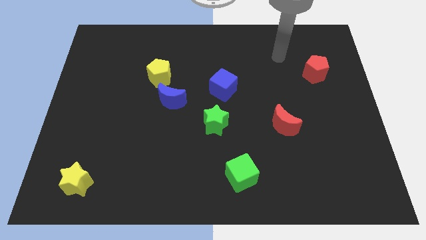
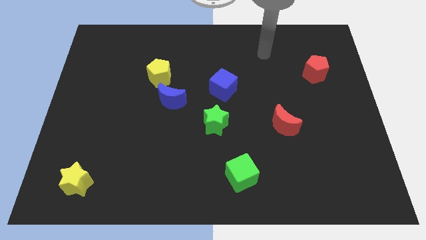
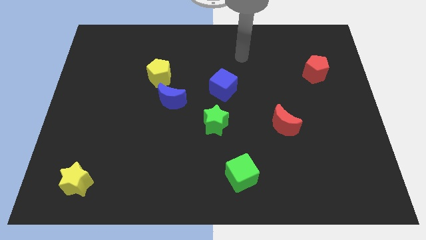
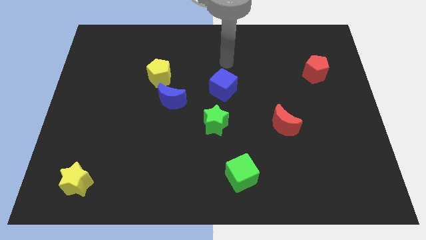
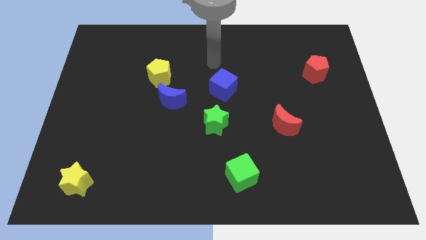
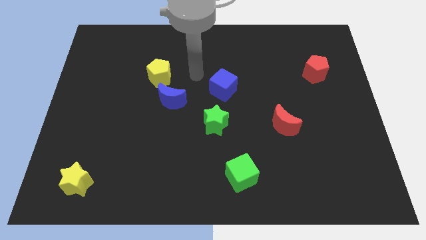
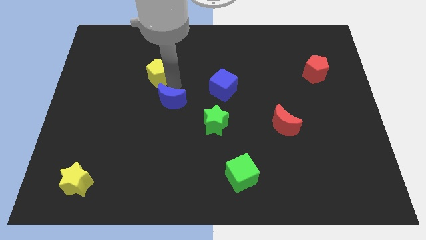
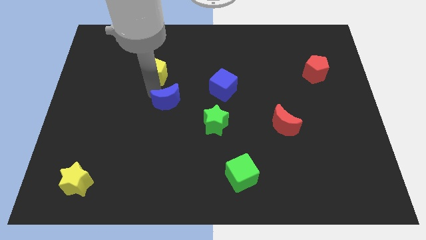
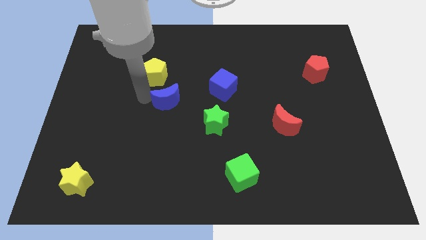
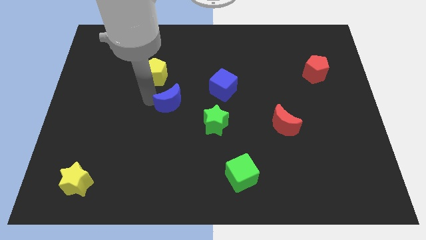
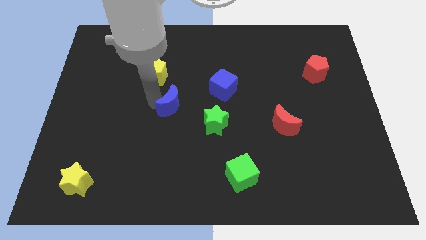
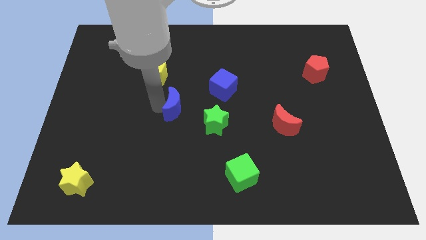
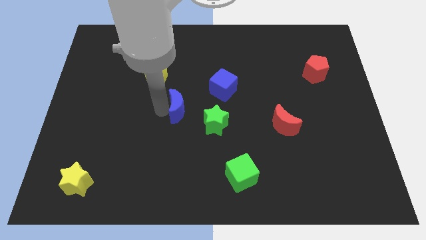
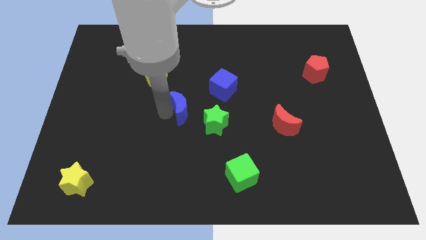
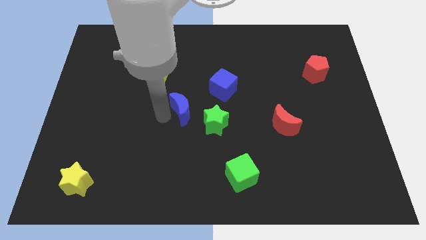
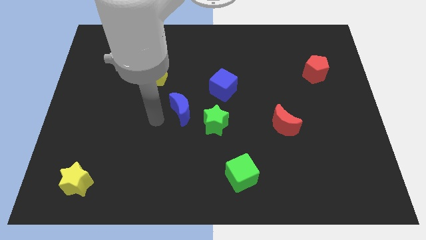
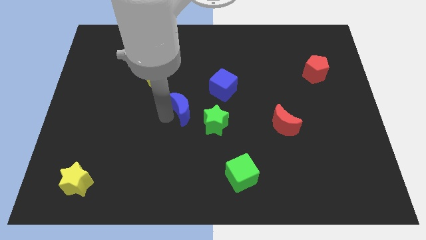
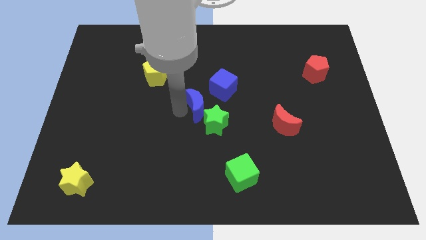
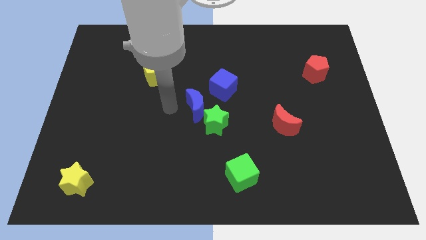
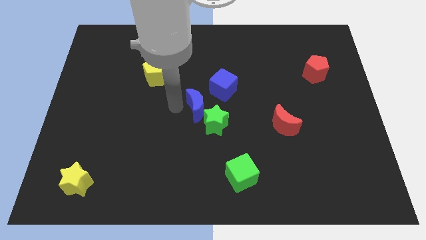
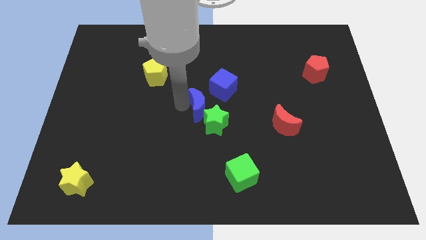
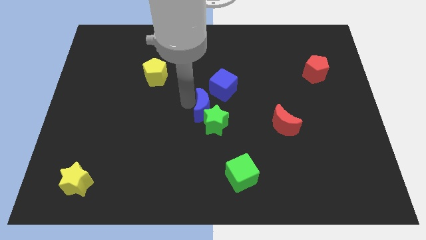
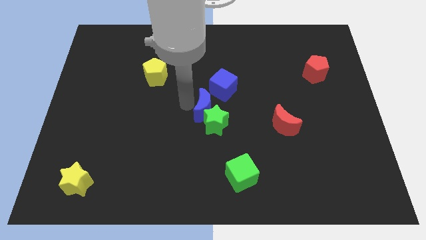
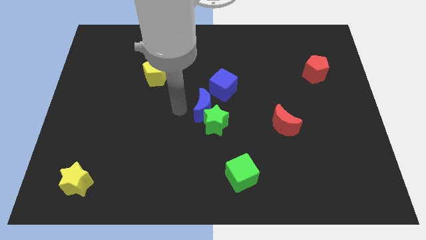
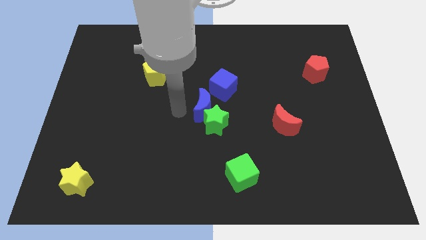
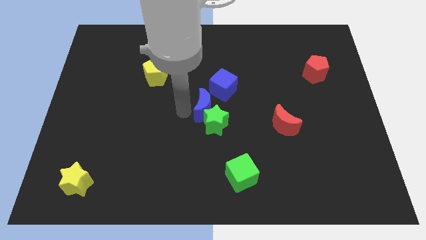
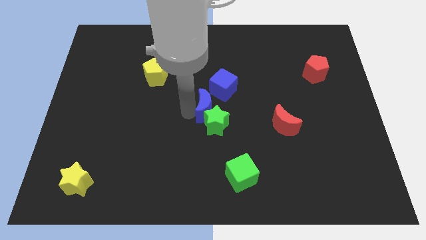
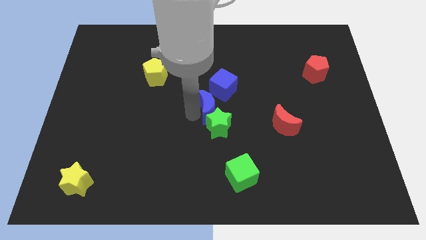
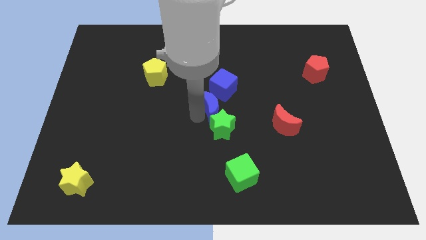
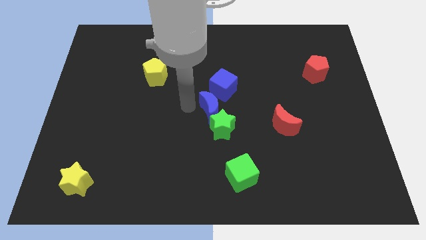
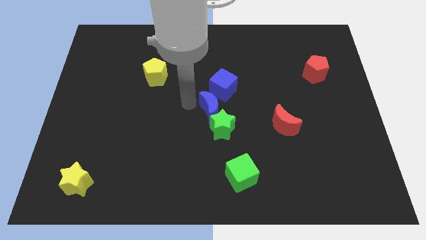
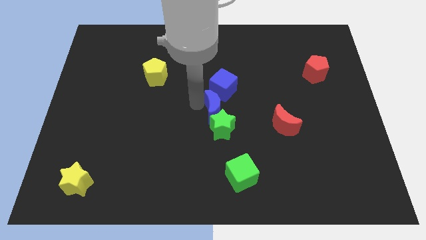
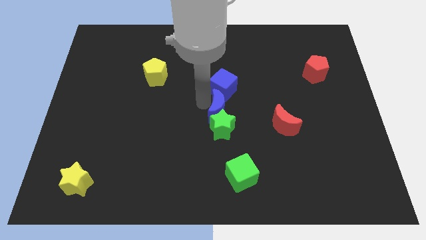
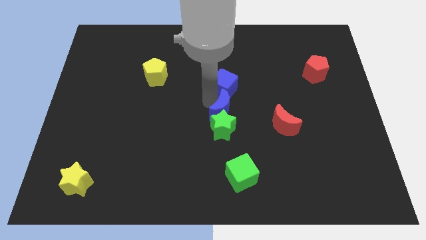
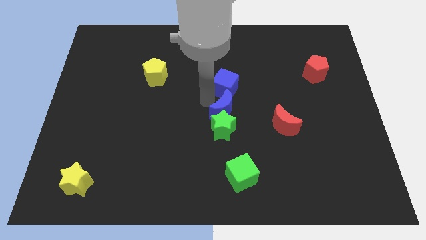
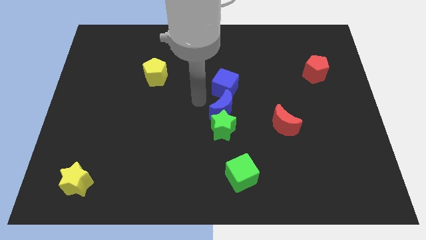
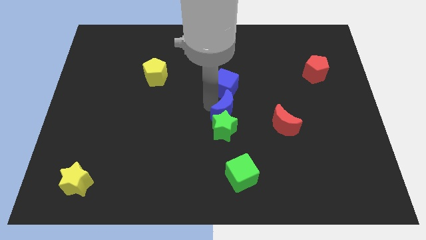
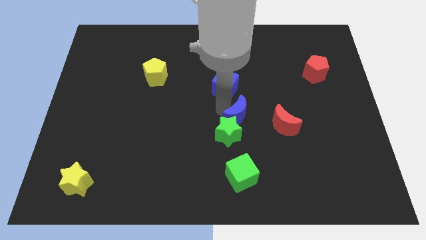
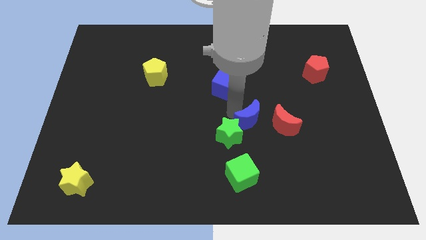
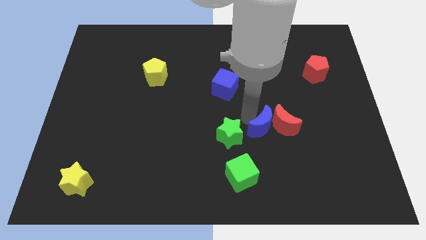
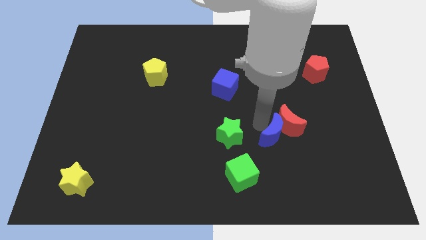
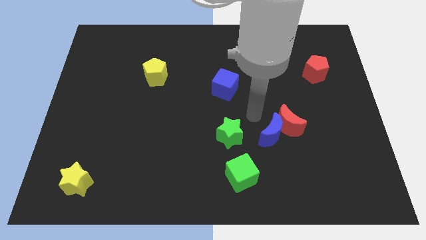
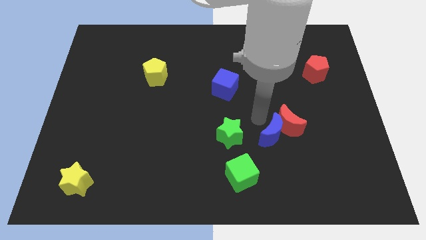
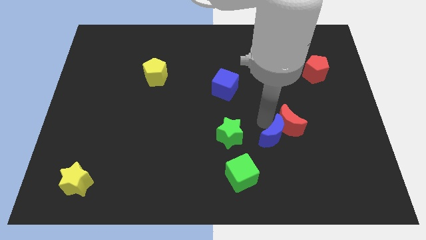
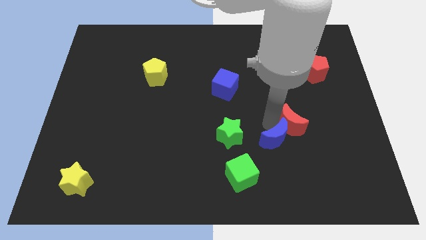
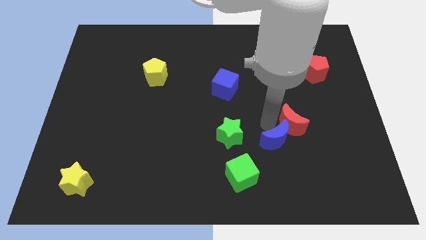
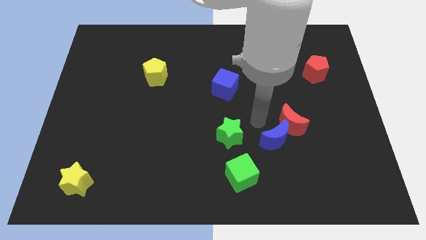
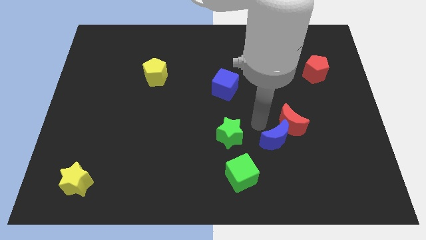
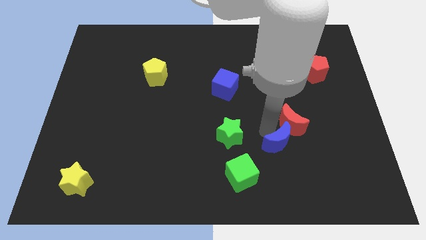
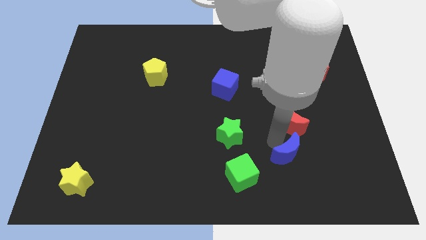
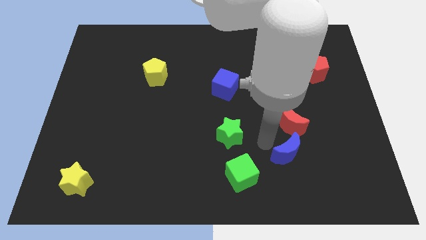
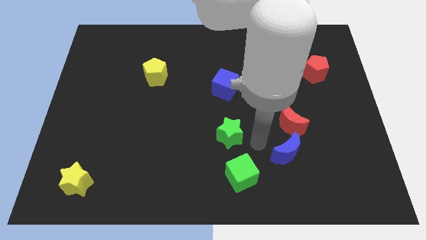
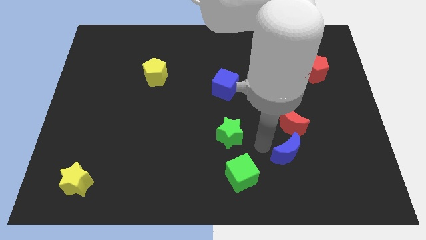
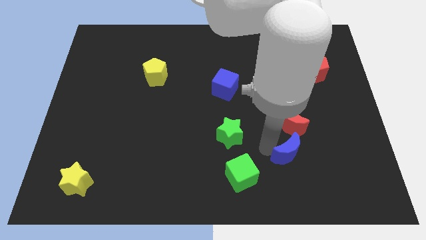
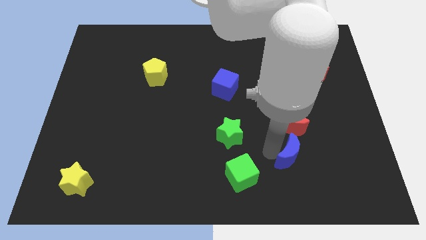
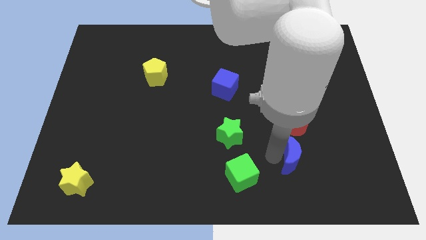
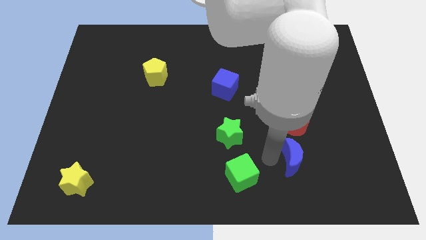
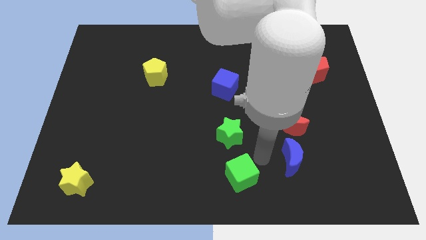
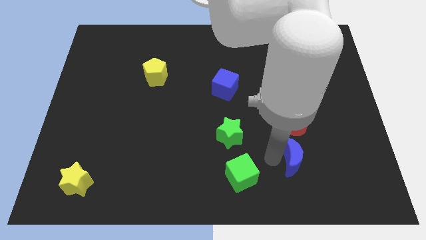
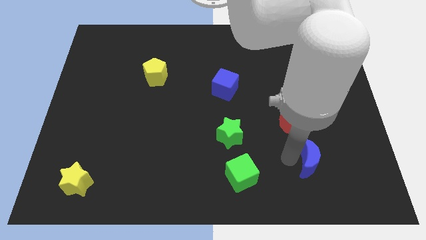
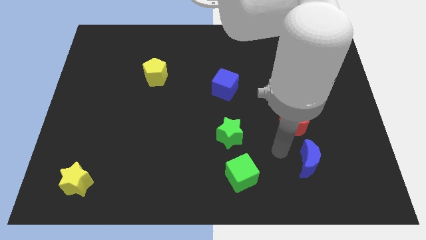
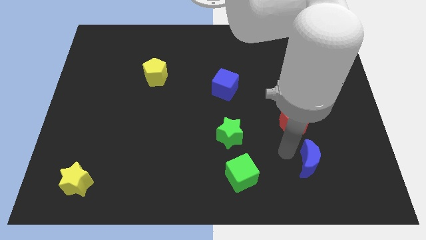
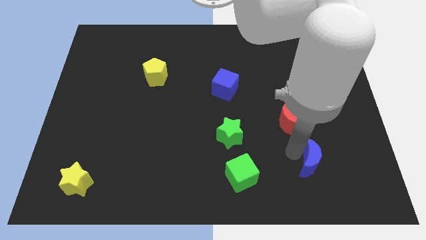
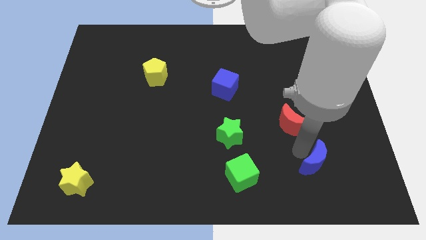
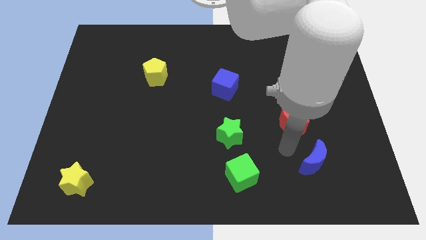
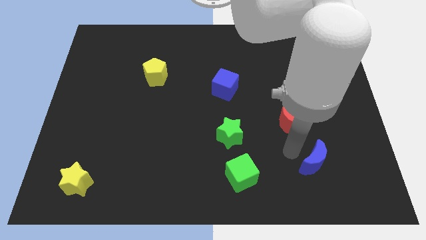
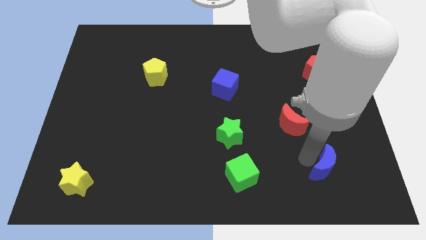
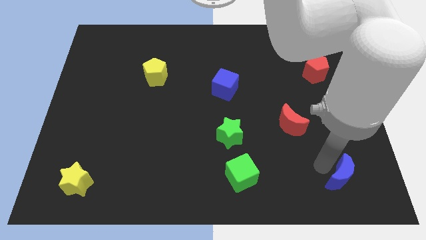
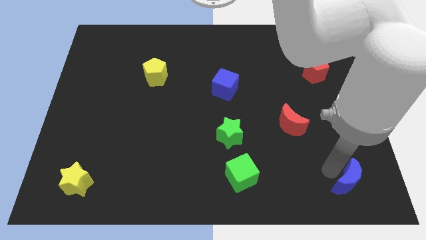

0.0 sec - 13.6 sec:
move the blue moon to the bottom right corner

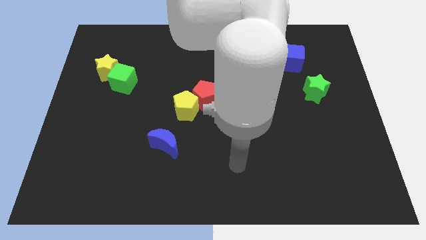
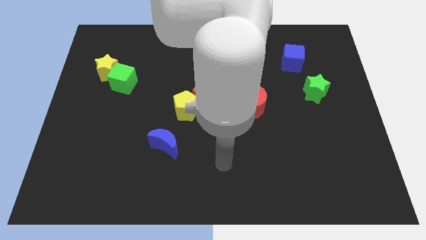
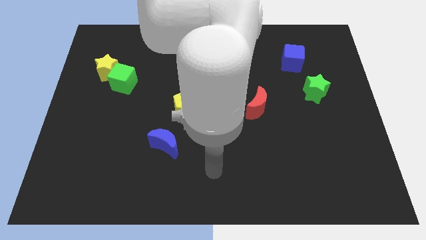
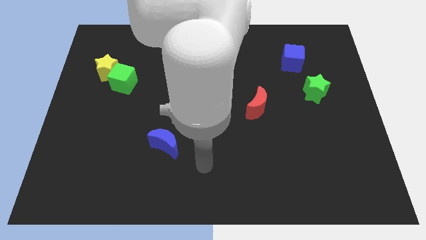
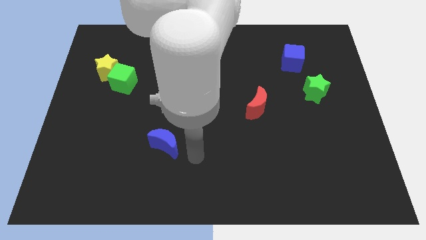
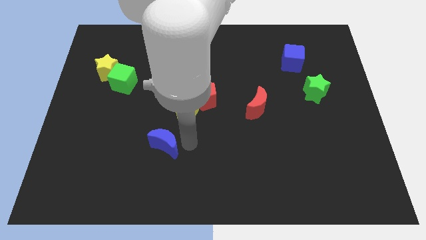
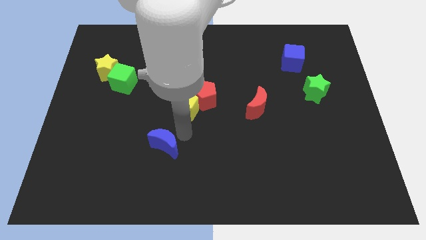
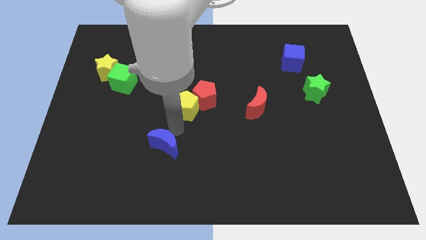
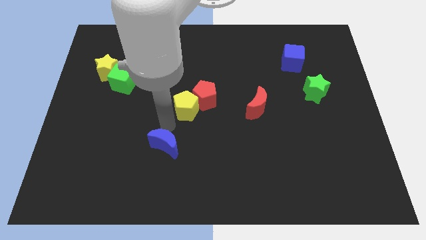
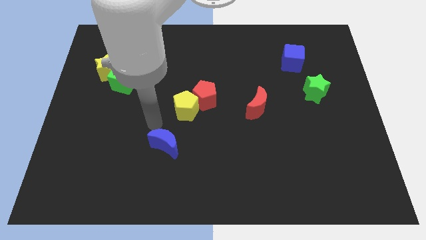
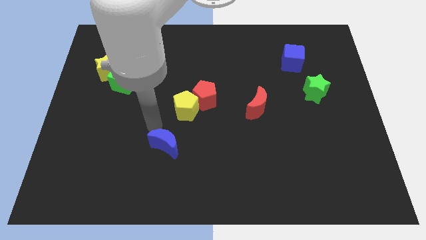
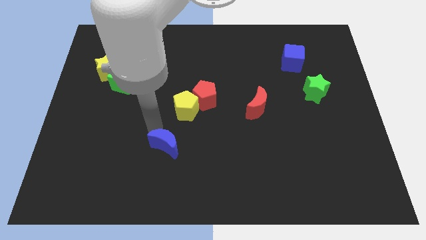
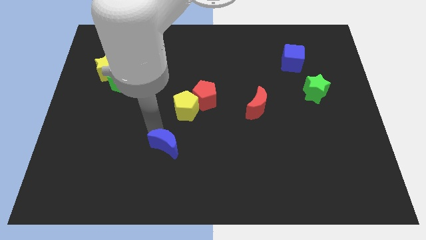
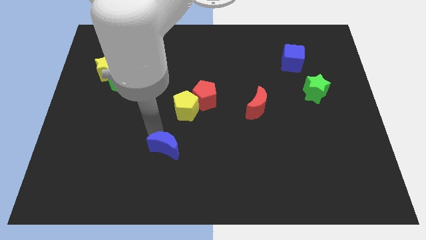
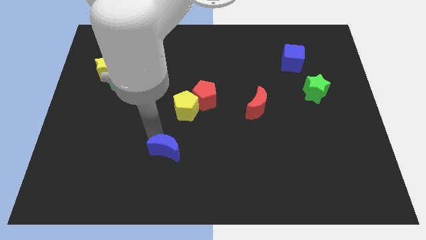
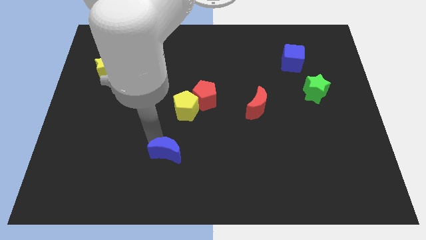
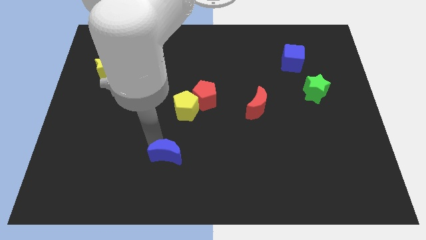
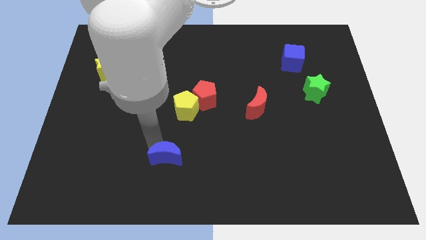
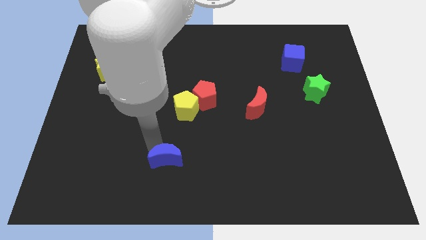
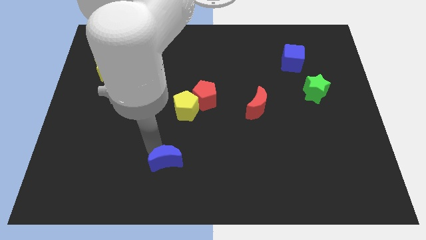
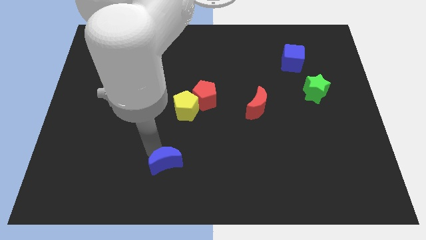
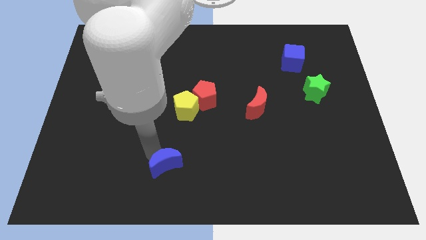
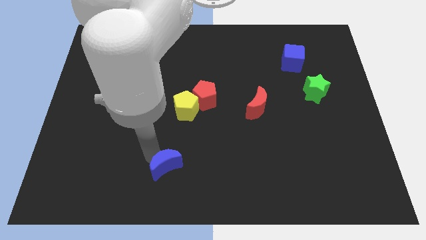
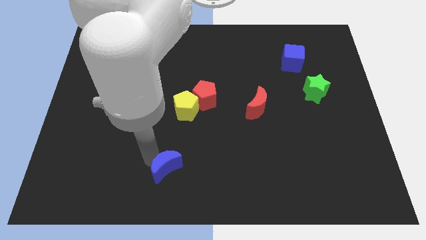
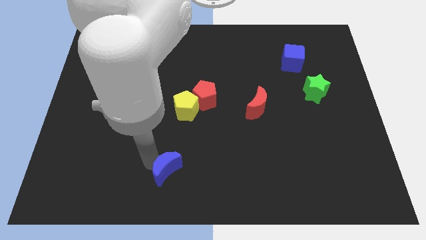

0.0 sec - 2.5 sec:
move the blue moon to the bottom side
